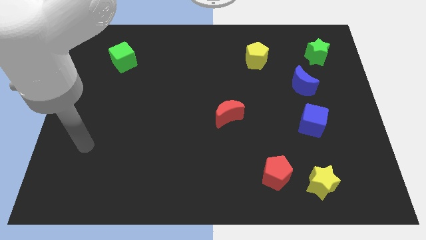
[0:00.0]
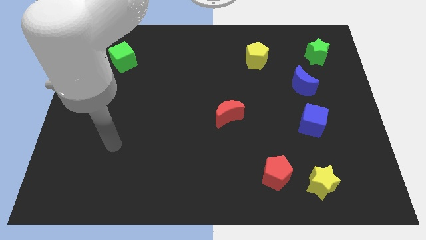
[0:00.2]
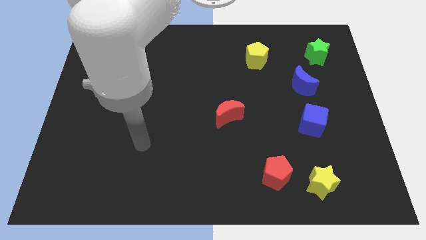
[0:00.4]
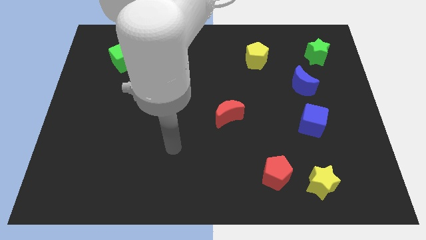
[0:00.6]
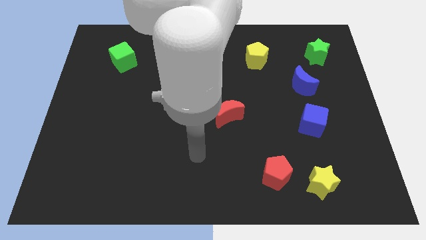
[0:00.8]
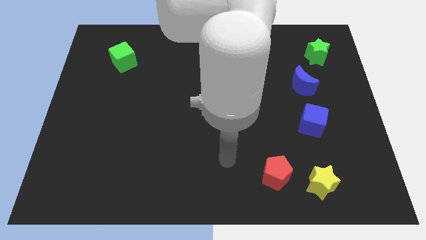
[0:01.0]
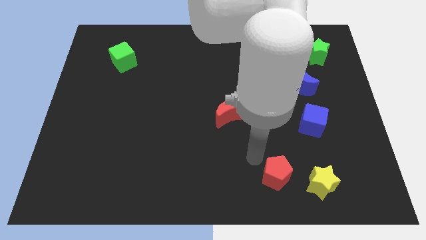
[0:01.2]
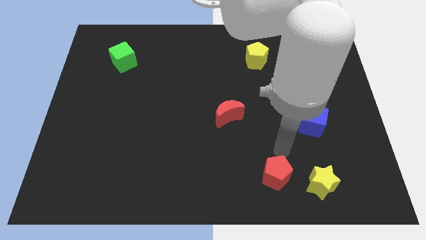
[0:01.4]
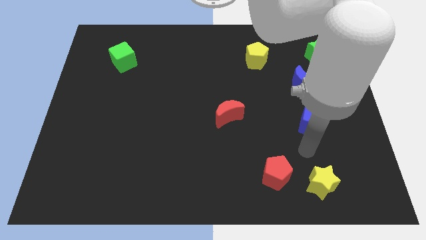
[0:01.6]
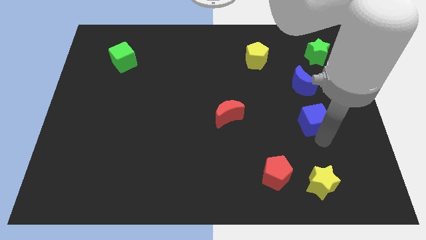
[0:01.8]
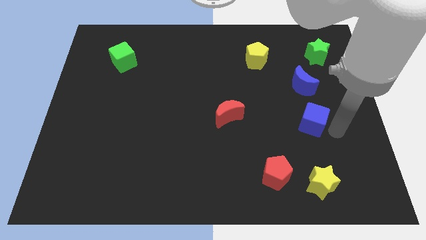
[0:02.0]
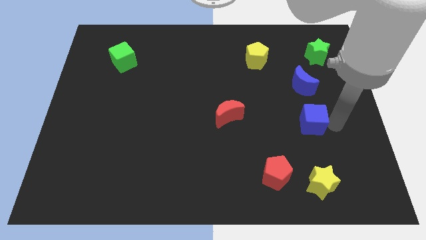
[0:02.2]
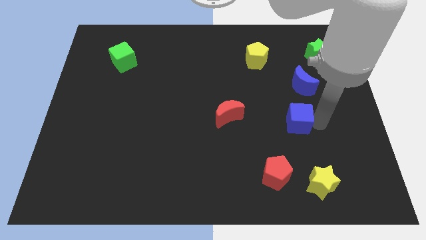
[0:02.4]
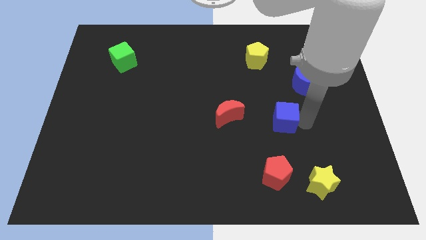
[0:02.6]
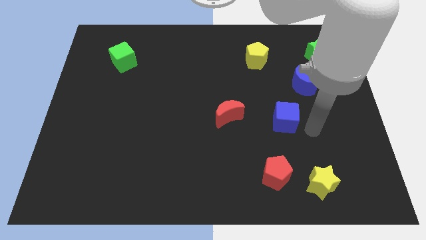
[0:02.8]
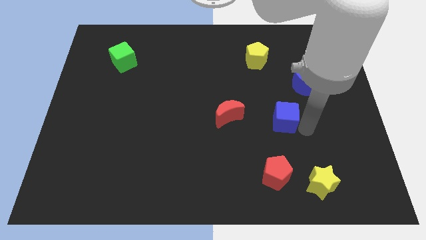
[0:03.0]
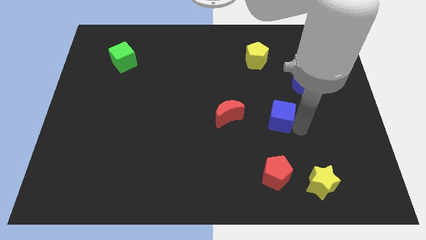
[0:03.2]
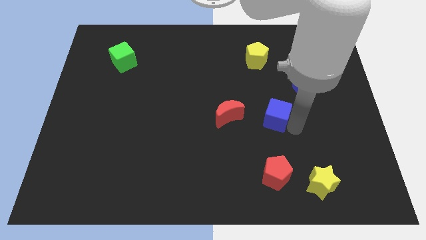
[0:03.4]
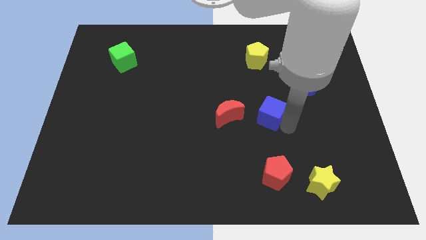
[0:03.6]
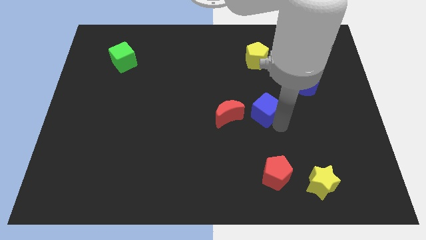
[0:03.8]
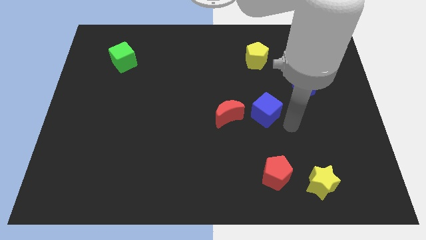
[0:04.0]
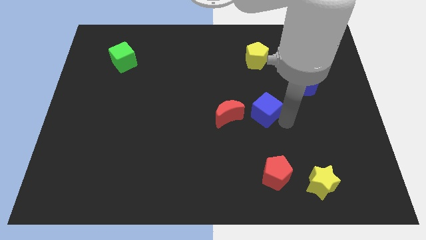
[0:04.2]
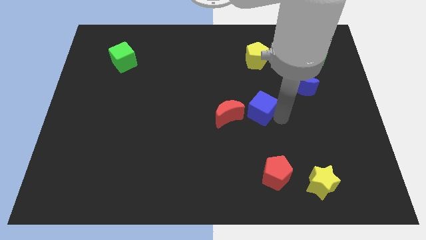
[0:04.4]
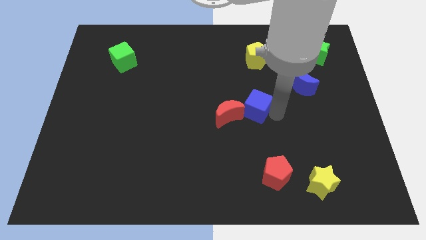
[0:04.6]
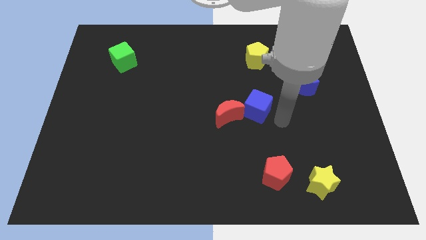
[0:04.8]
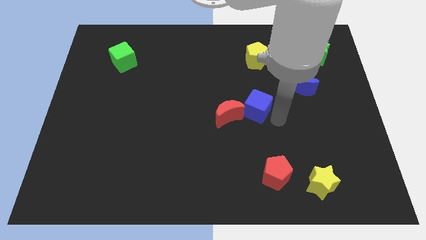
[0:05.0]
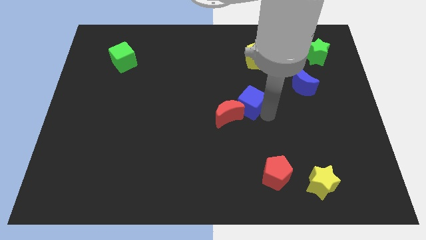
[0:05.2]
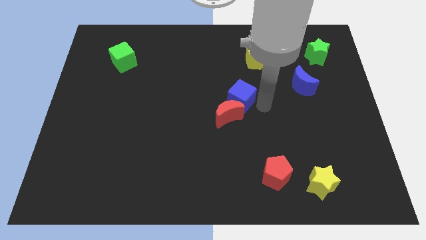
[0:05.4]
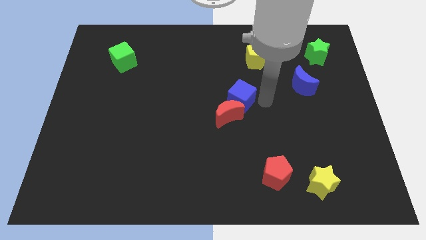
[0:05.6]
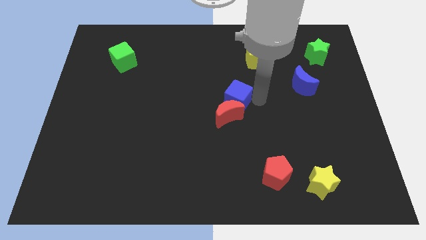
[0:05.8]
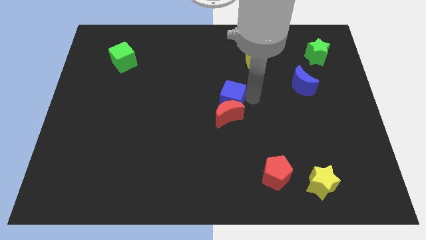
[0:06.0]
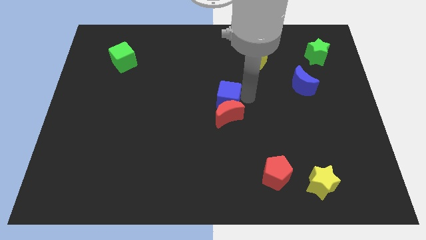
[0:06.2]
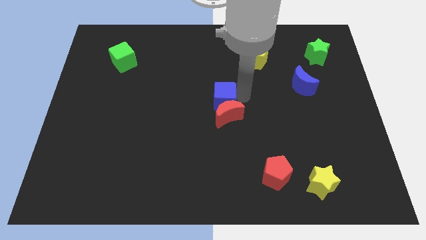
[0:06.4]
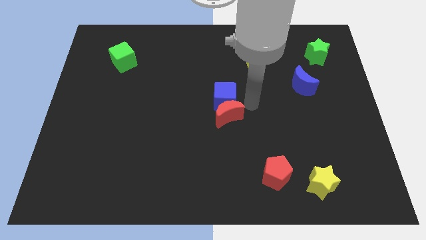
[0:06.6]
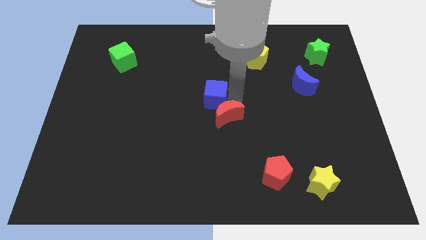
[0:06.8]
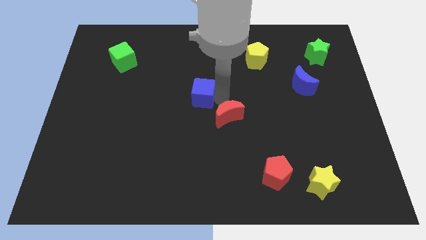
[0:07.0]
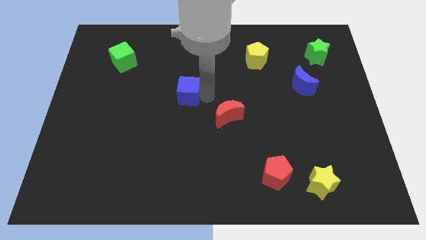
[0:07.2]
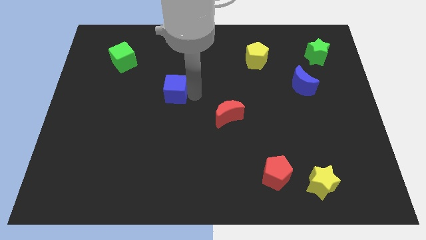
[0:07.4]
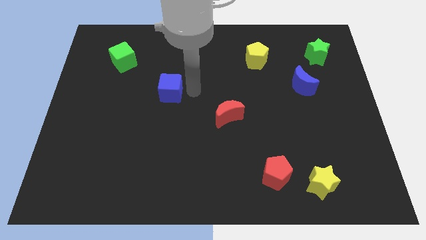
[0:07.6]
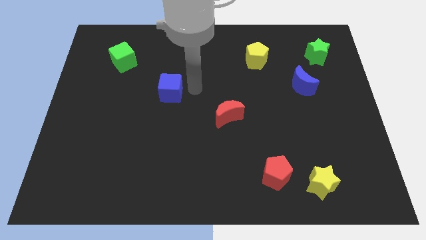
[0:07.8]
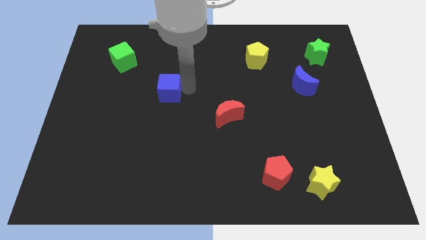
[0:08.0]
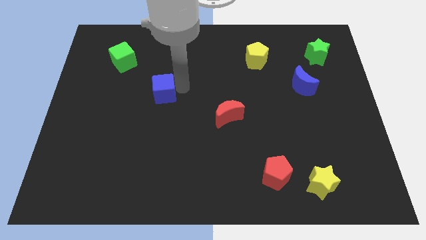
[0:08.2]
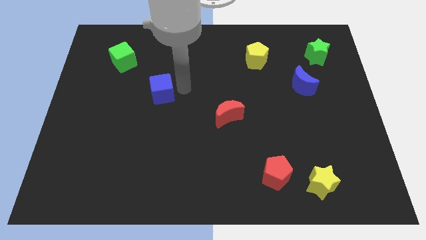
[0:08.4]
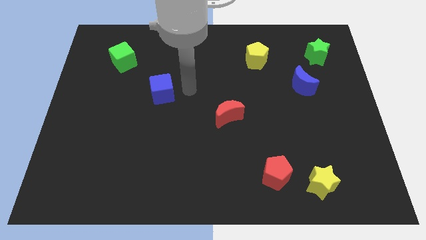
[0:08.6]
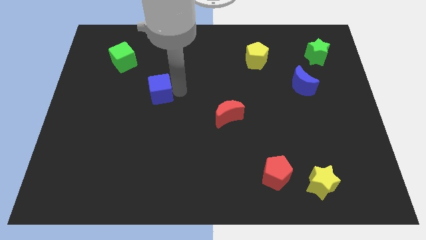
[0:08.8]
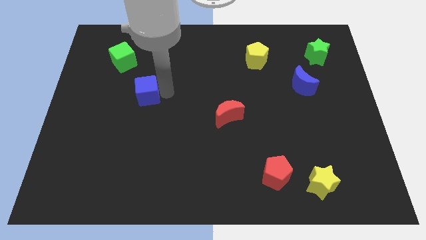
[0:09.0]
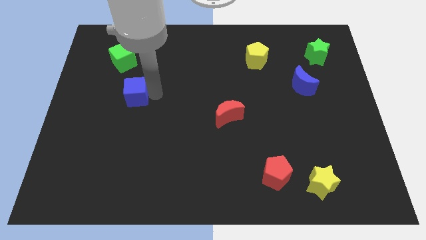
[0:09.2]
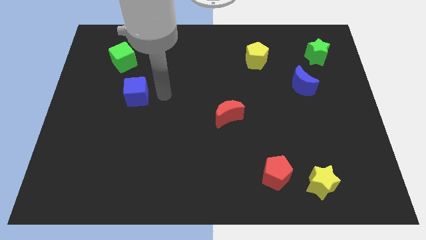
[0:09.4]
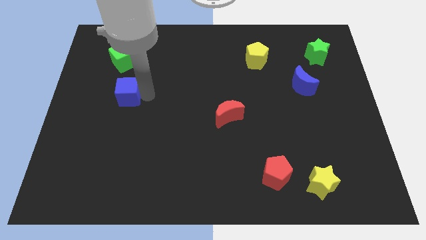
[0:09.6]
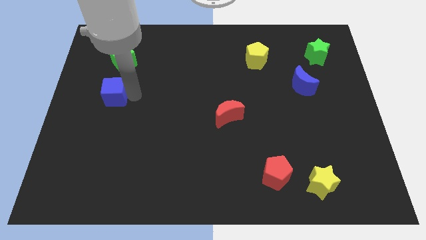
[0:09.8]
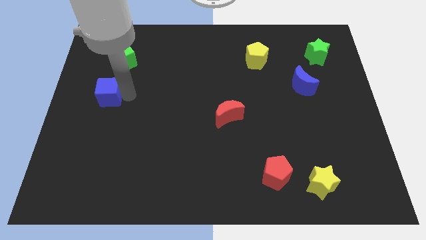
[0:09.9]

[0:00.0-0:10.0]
put the blue cube to the left side

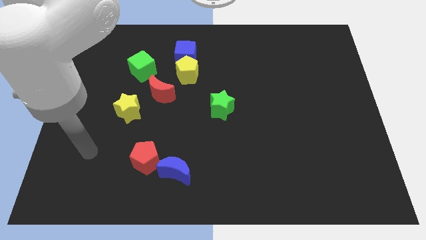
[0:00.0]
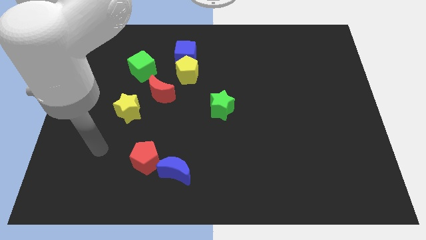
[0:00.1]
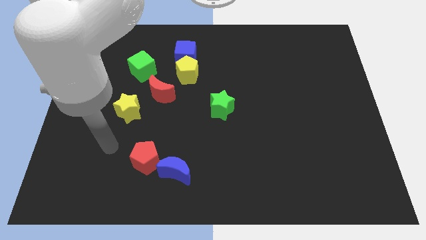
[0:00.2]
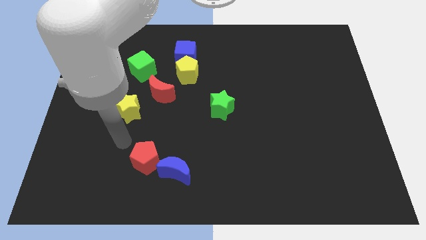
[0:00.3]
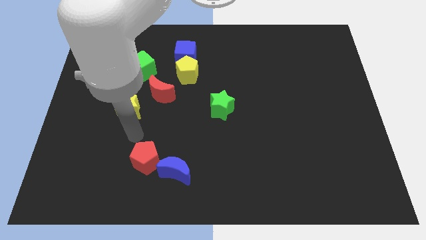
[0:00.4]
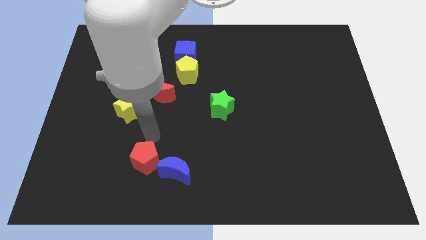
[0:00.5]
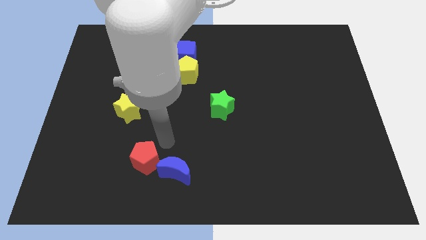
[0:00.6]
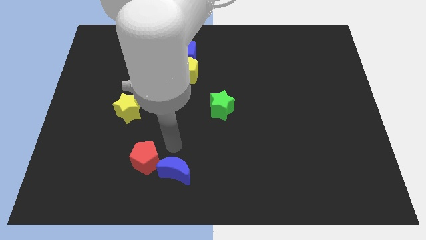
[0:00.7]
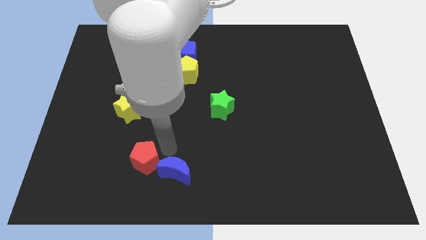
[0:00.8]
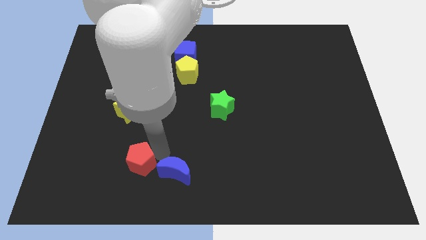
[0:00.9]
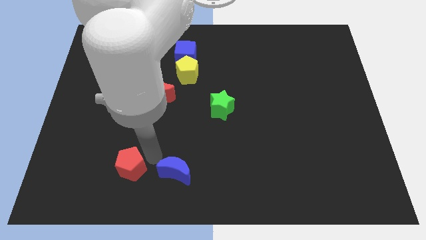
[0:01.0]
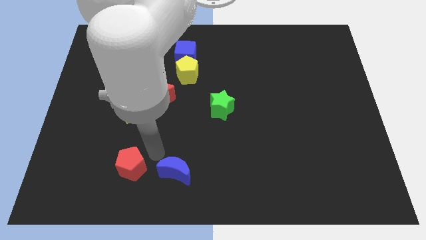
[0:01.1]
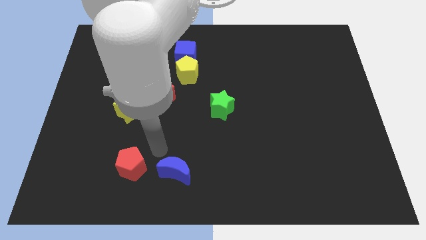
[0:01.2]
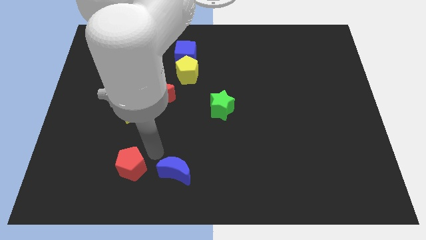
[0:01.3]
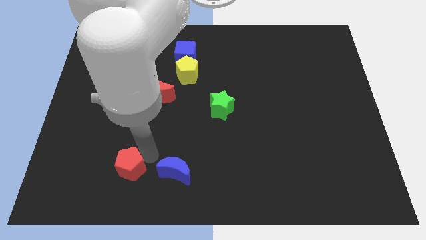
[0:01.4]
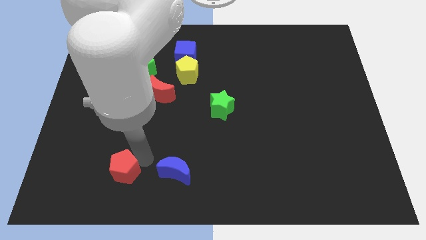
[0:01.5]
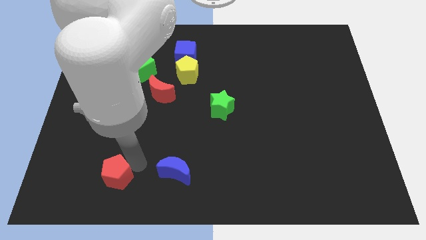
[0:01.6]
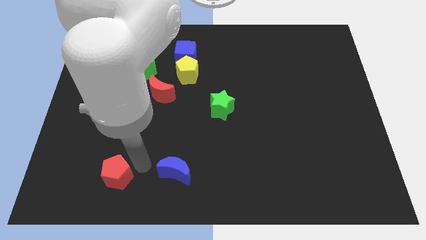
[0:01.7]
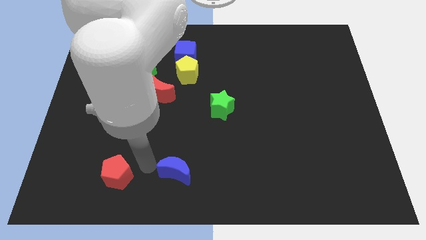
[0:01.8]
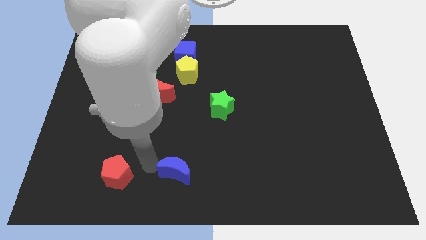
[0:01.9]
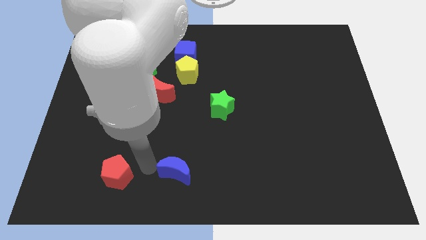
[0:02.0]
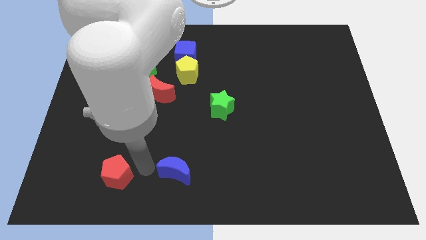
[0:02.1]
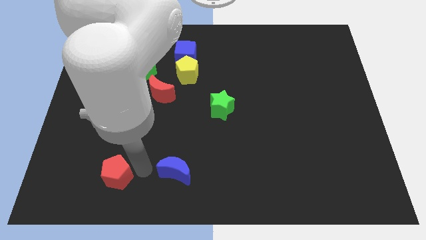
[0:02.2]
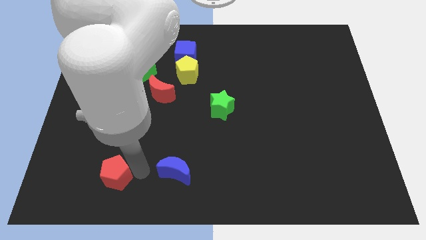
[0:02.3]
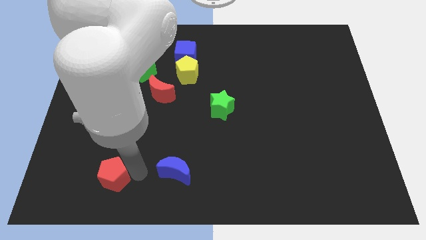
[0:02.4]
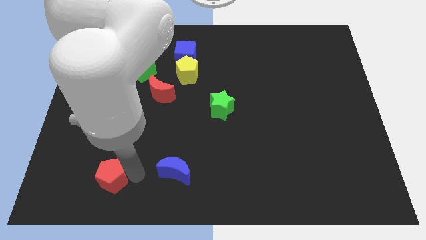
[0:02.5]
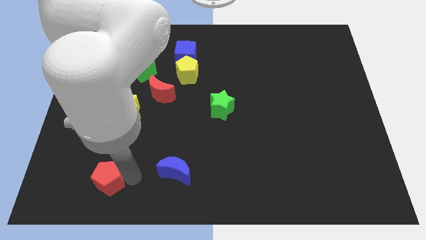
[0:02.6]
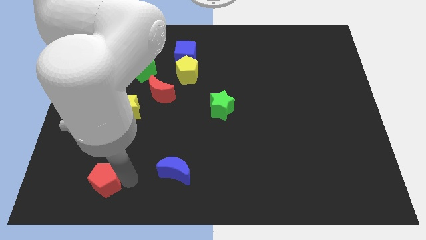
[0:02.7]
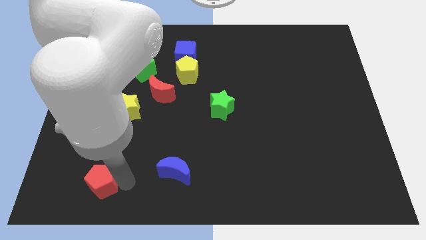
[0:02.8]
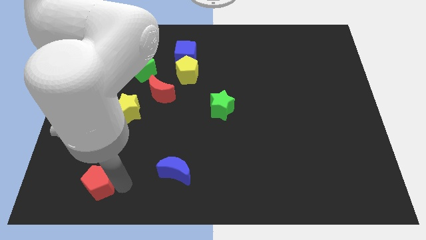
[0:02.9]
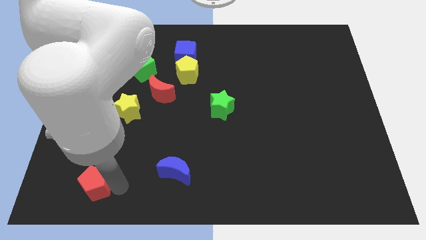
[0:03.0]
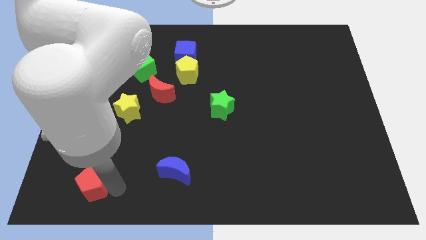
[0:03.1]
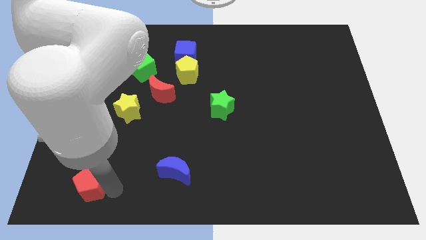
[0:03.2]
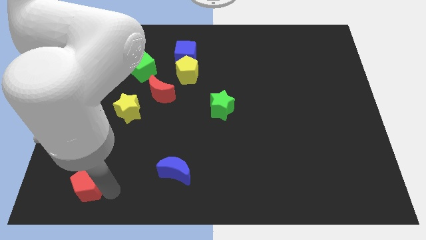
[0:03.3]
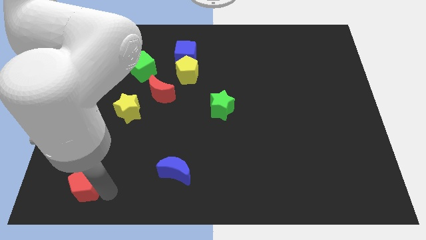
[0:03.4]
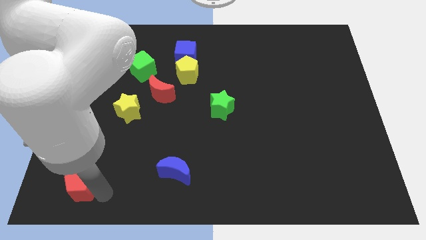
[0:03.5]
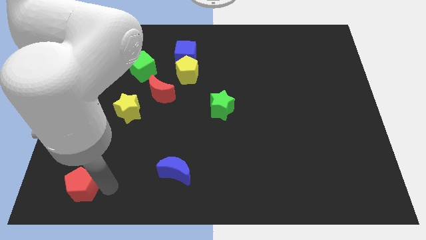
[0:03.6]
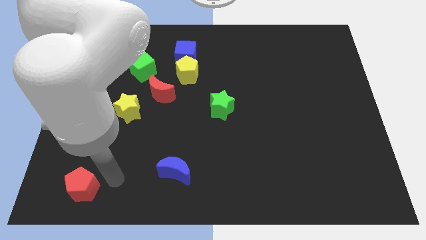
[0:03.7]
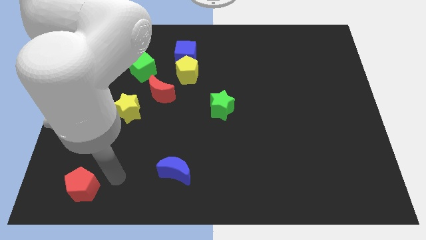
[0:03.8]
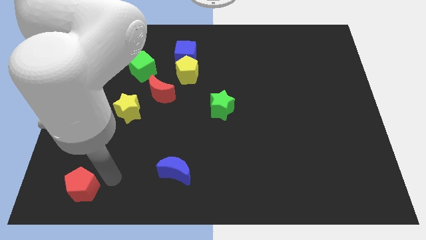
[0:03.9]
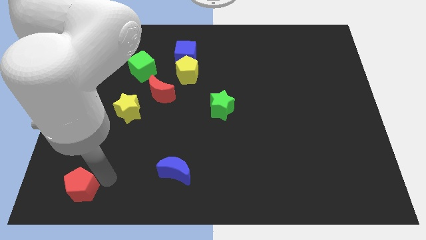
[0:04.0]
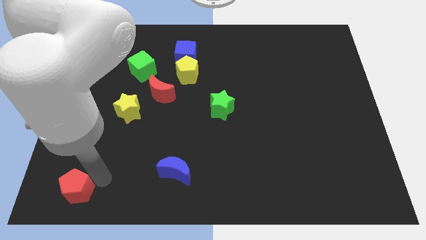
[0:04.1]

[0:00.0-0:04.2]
push the red pentagon to the bottom left of the board
